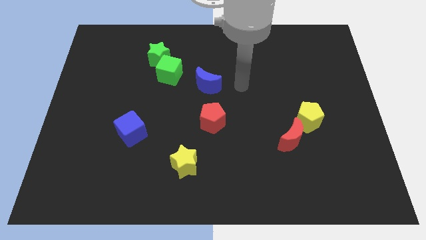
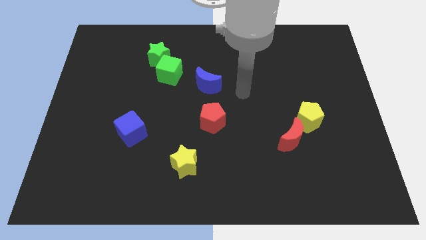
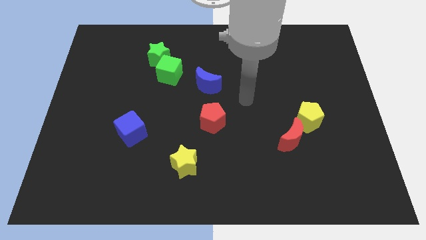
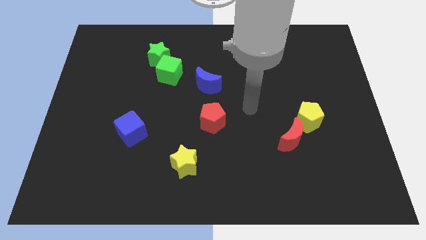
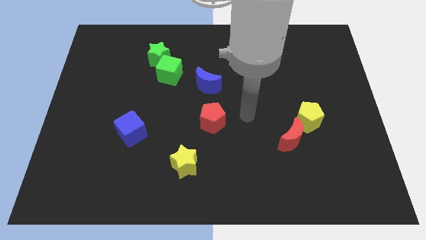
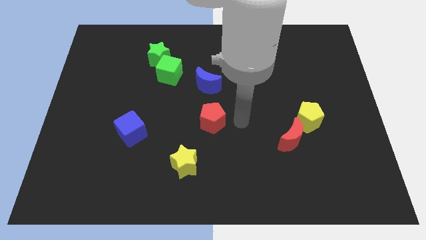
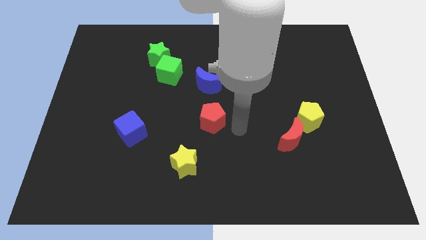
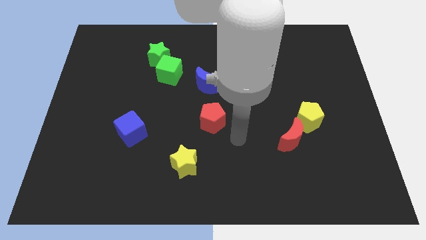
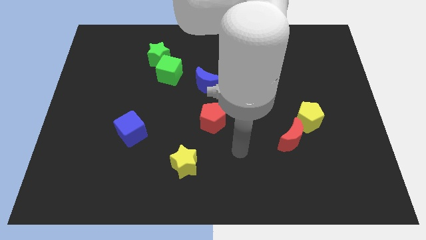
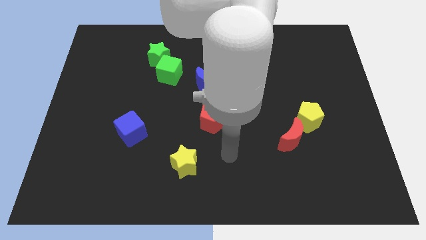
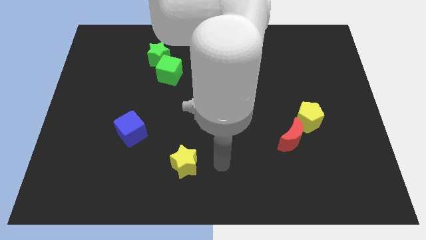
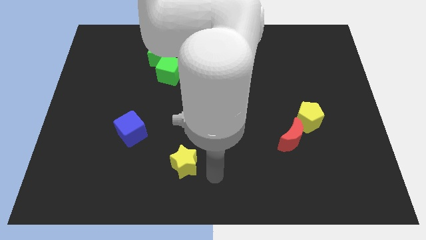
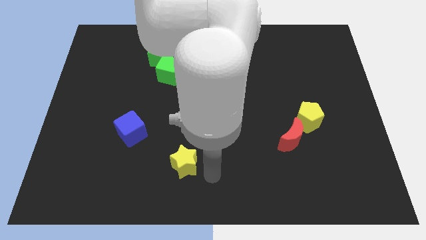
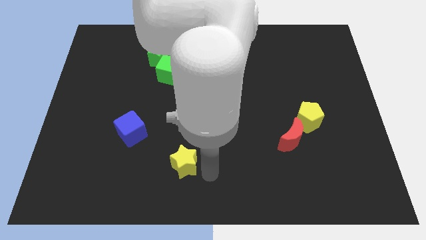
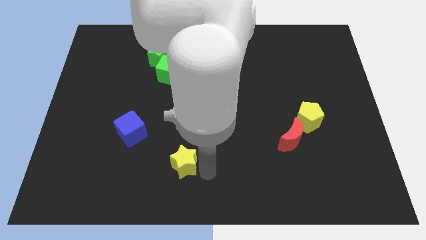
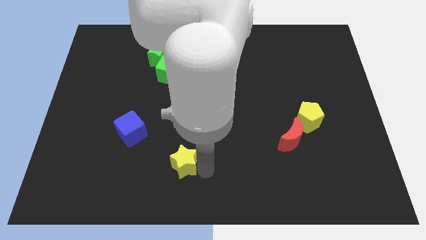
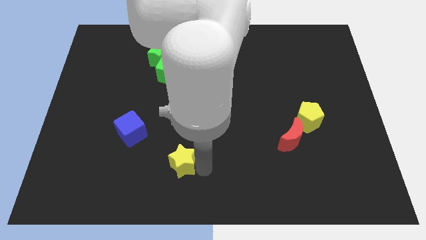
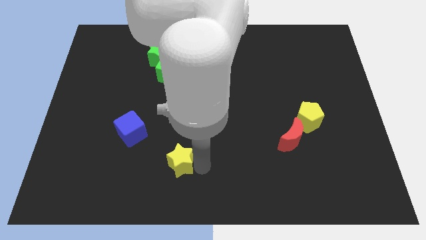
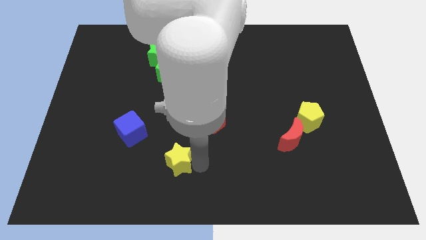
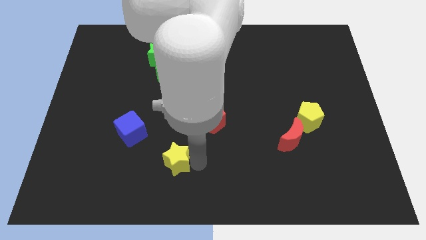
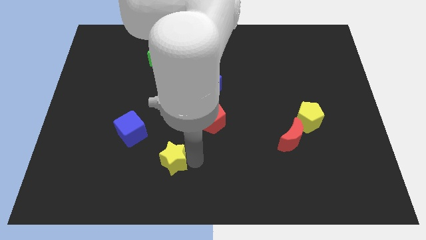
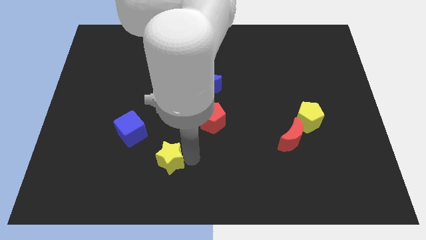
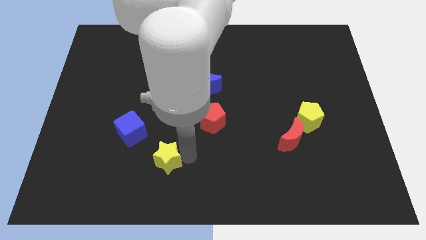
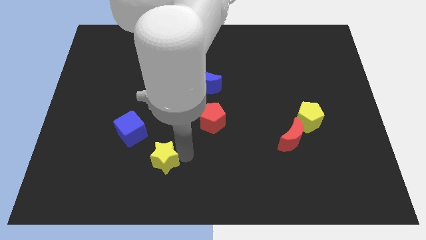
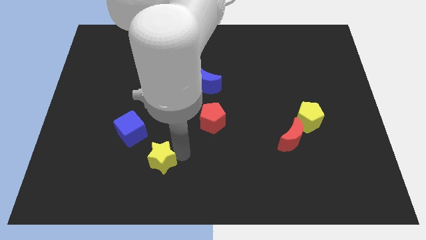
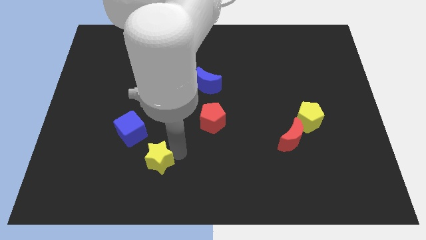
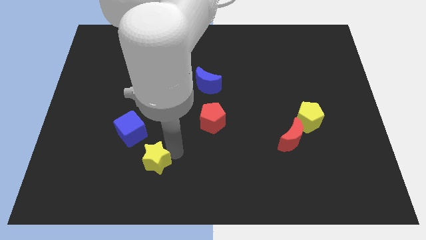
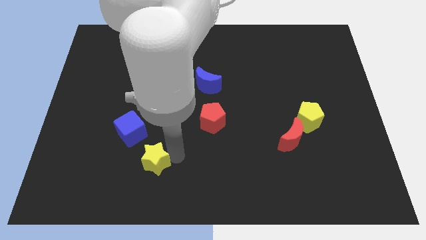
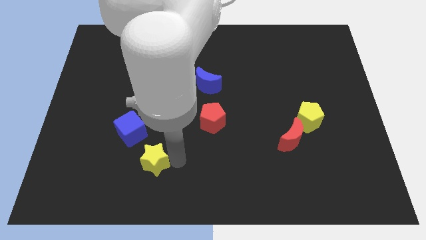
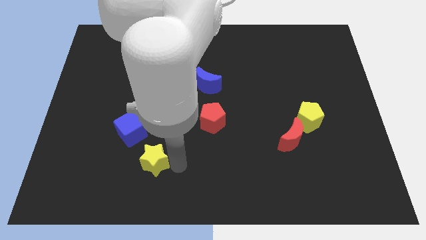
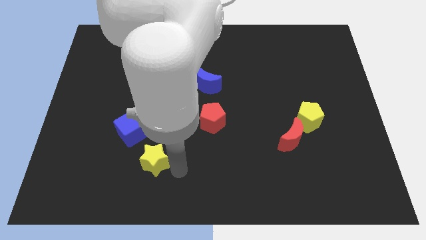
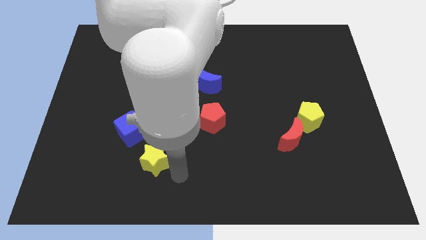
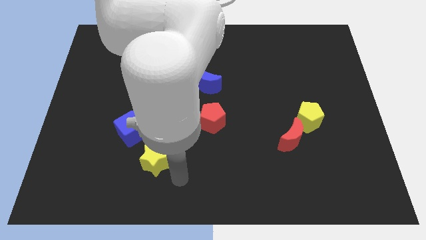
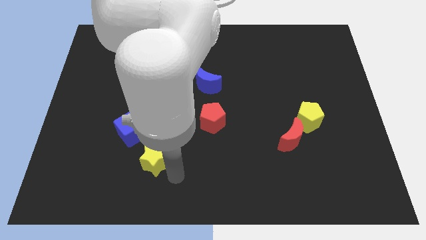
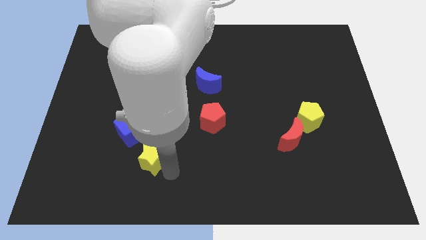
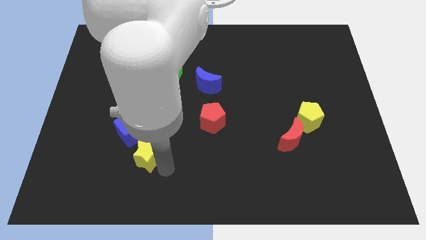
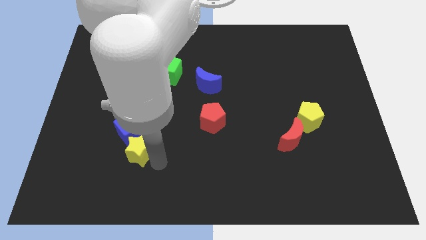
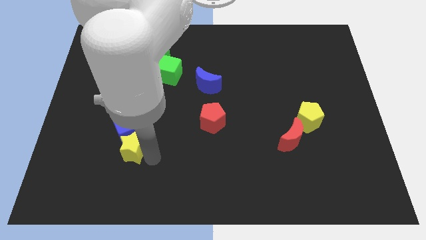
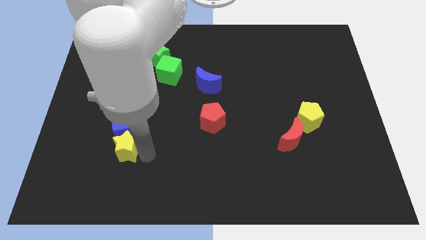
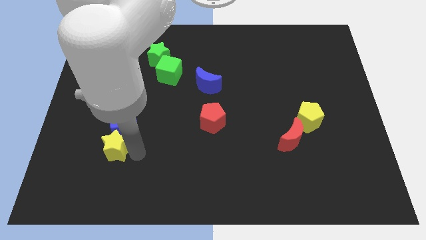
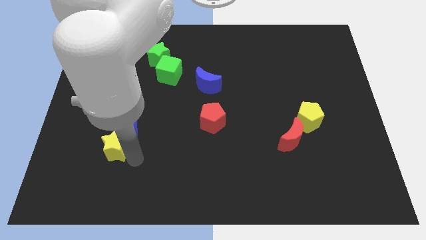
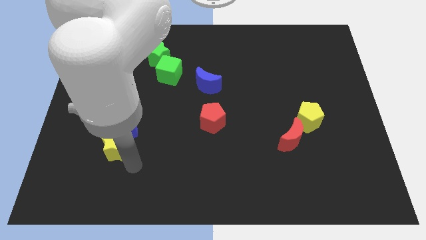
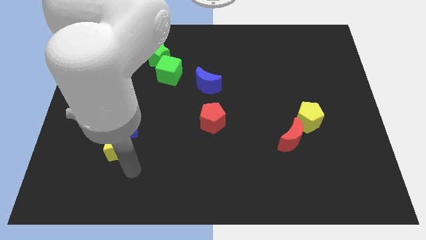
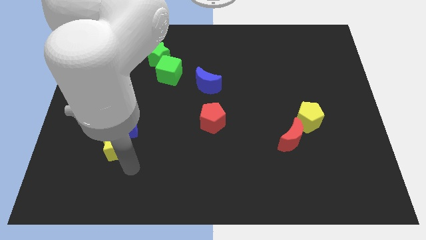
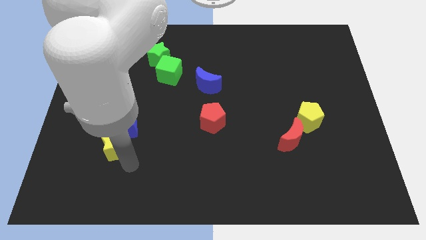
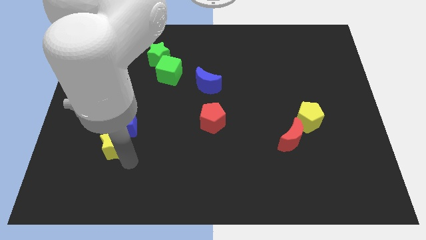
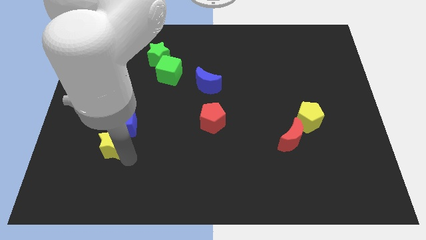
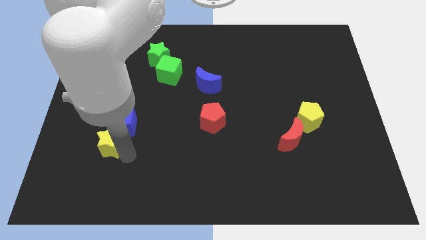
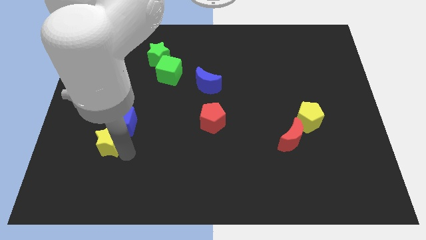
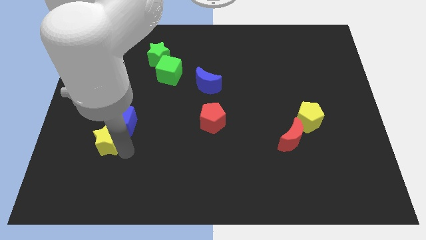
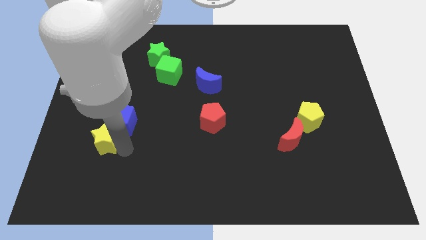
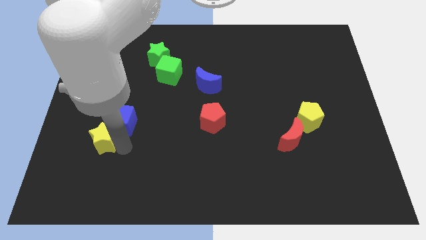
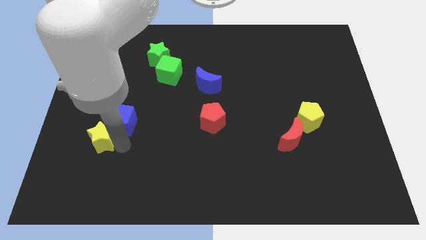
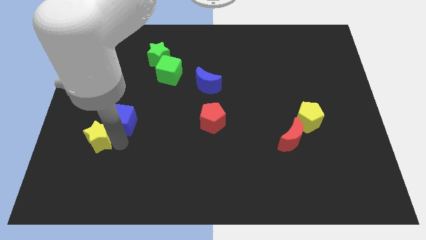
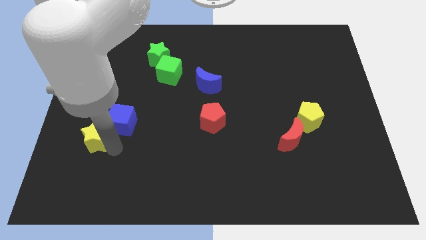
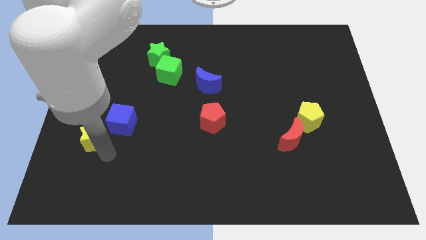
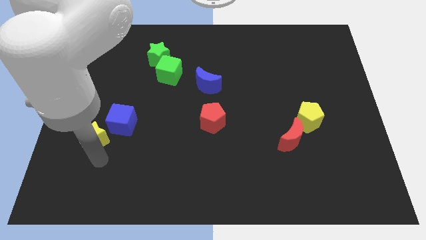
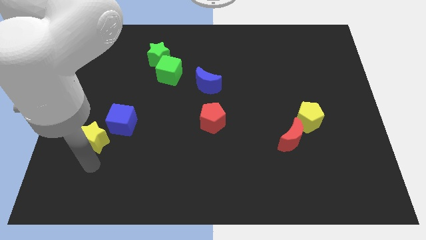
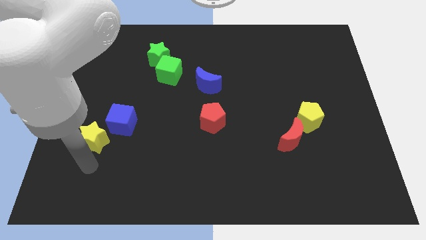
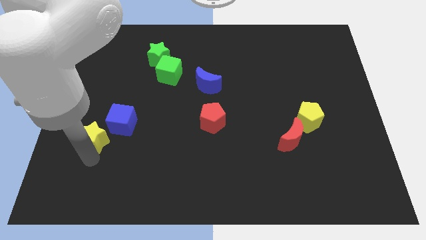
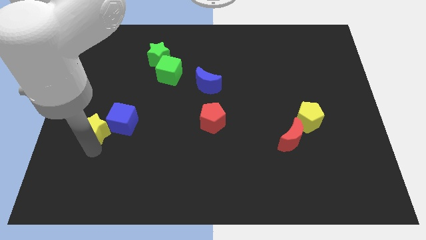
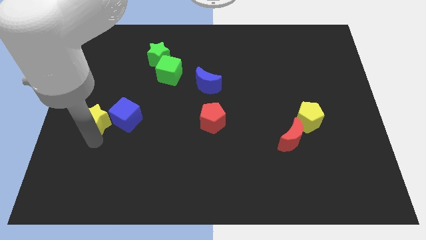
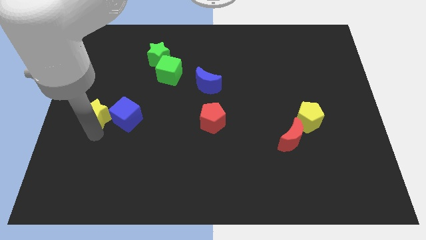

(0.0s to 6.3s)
slide the yellow star diagonally up and to the left of the blue cube
